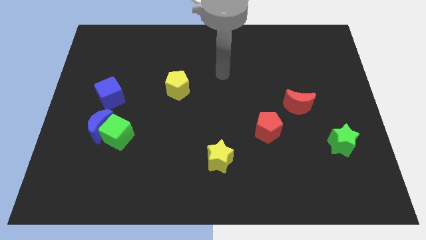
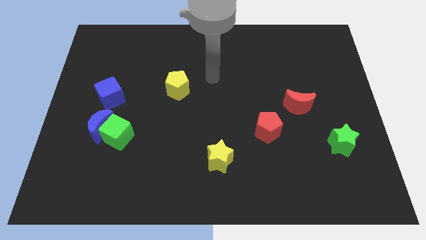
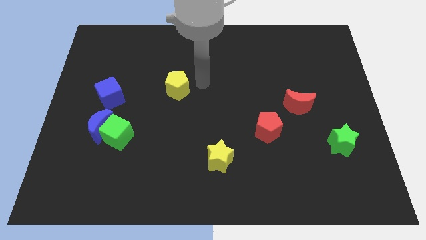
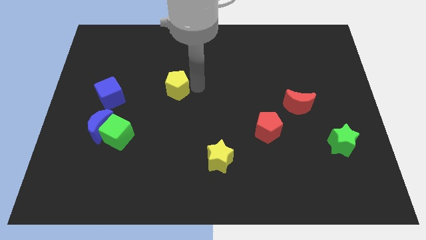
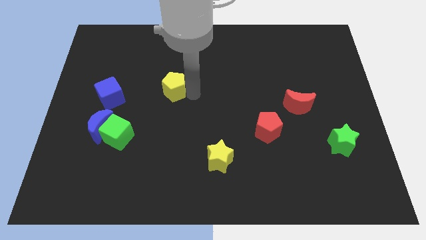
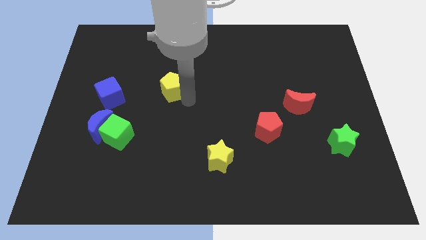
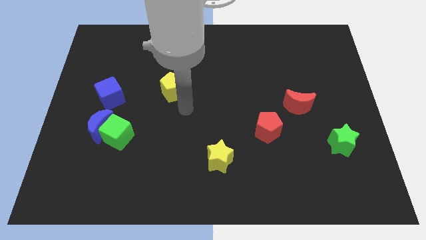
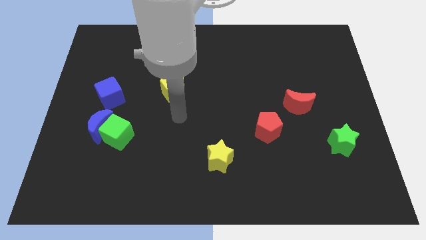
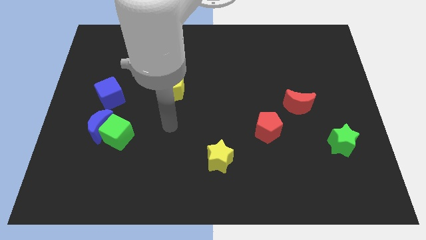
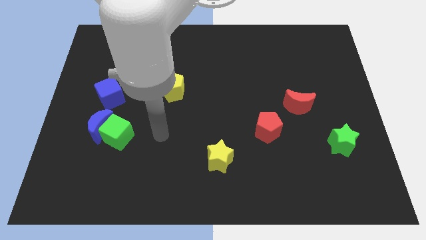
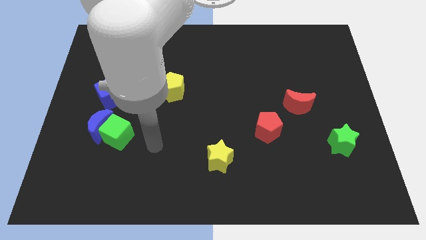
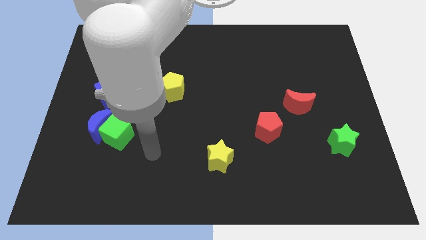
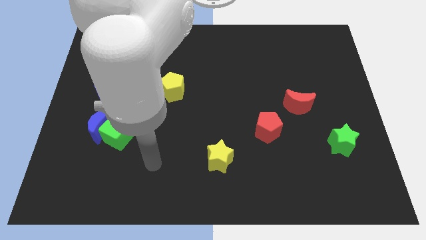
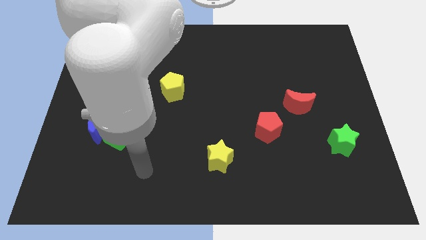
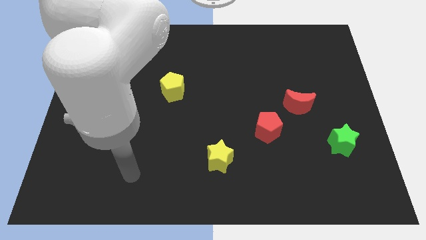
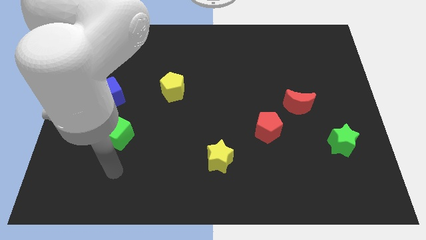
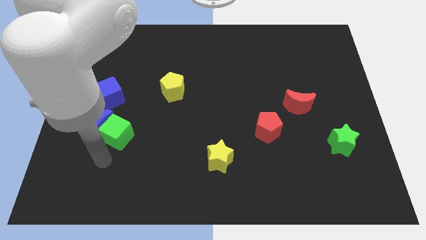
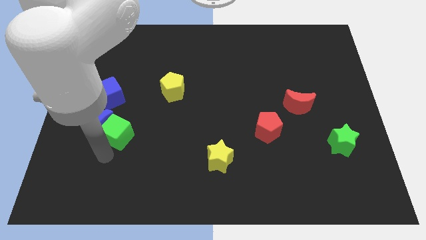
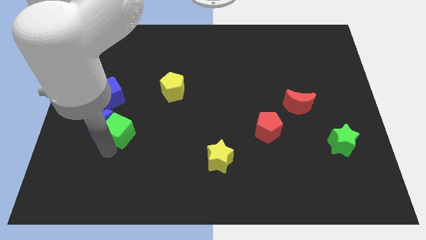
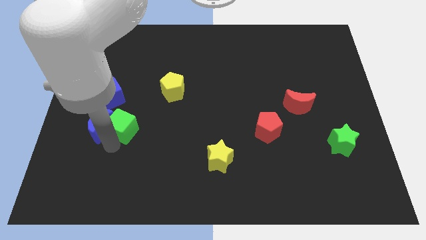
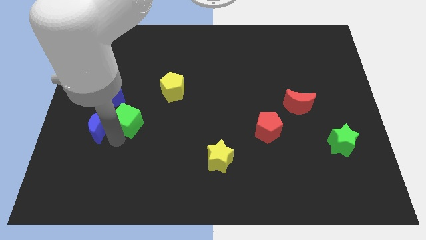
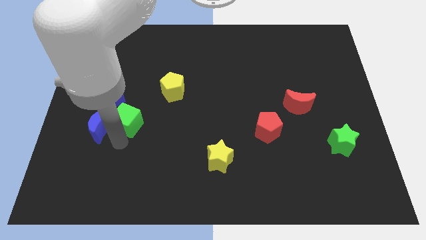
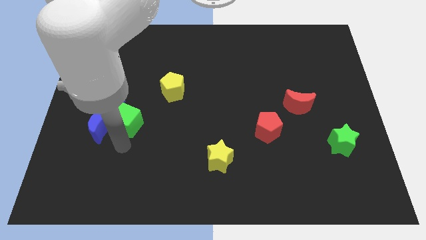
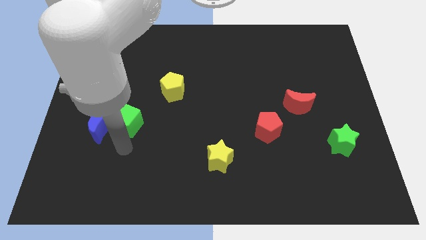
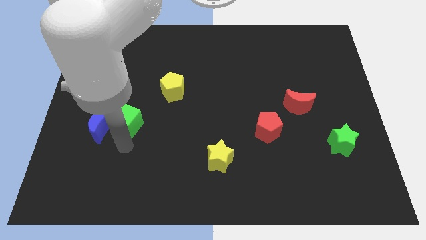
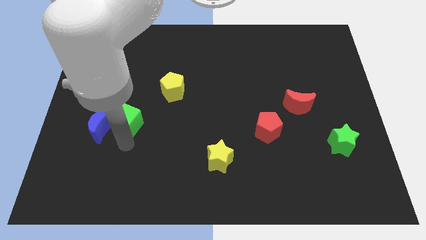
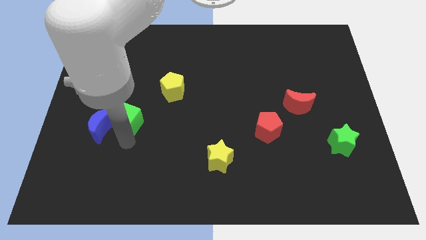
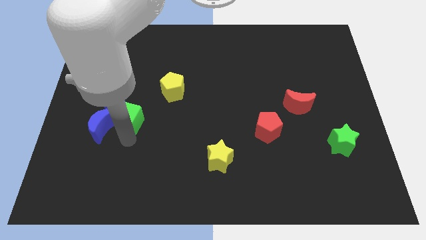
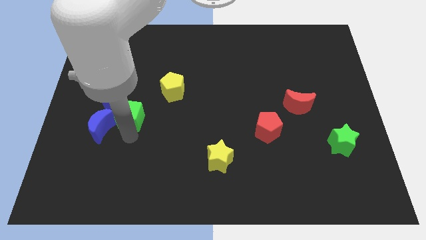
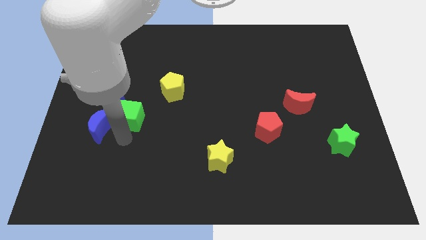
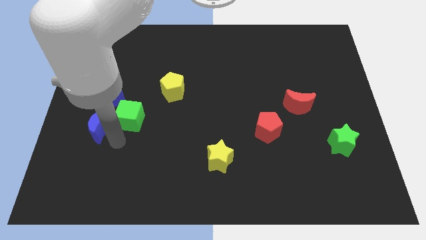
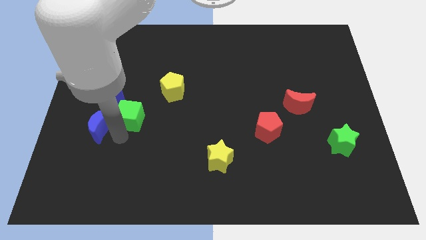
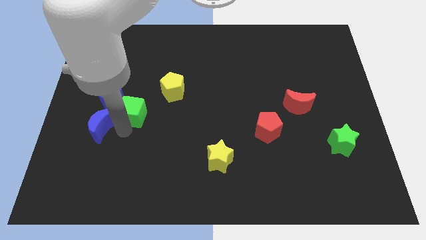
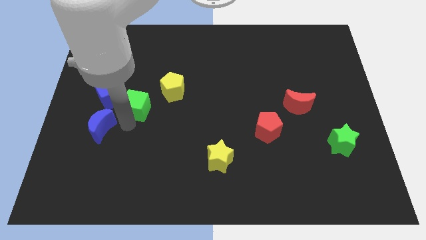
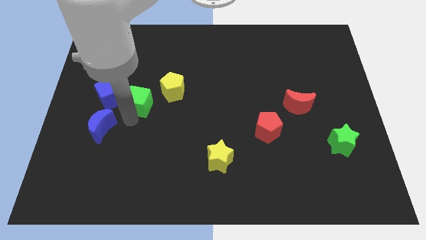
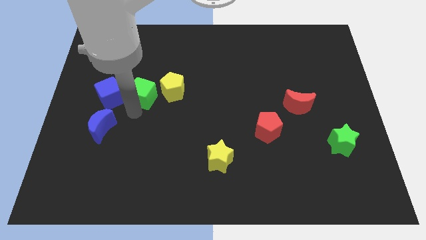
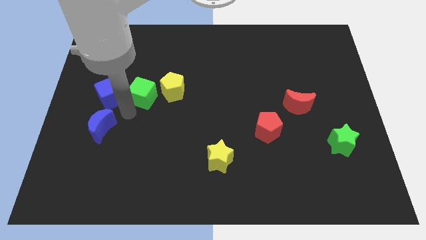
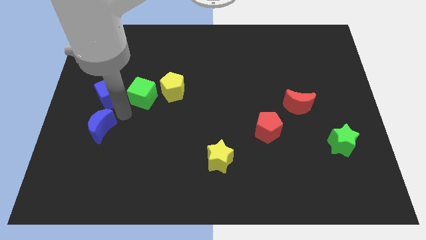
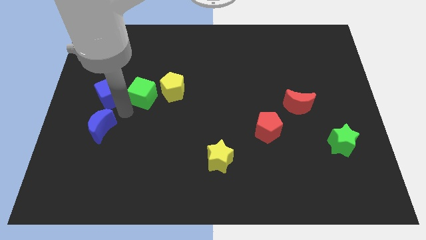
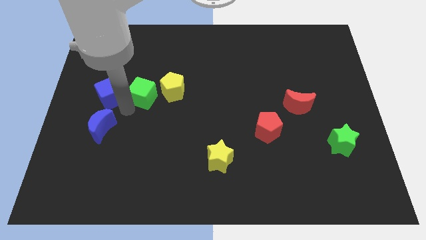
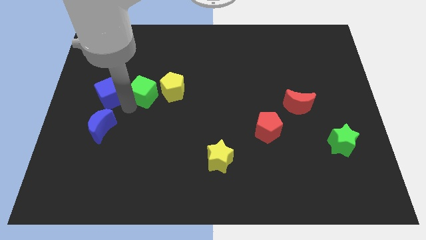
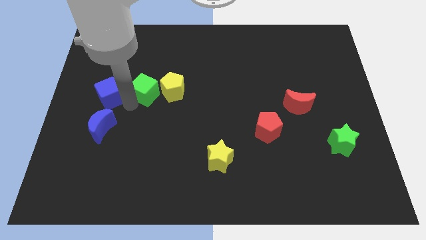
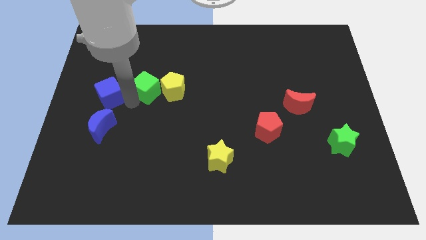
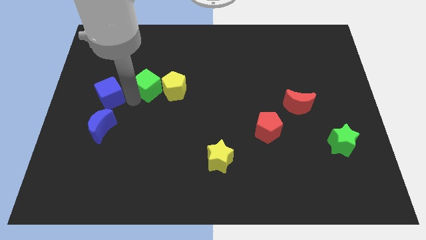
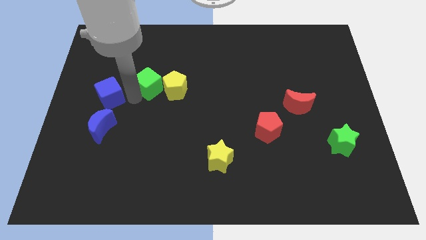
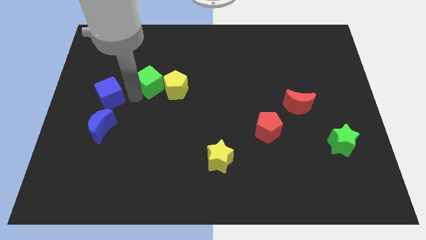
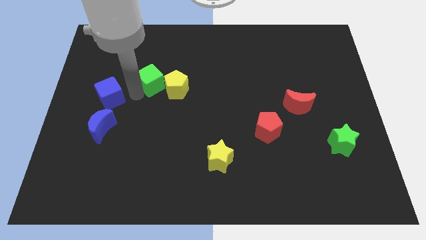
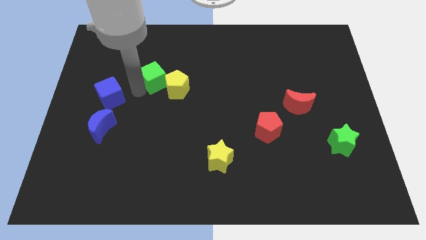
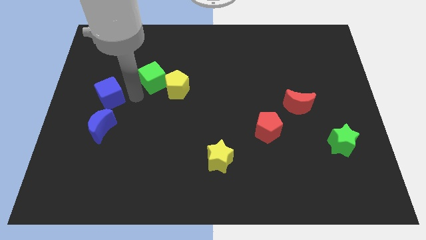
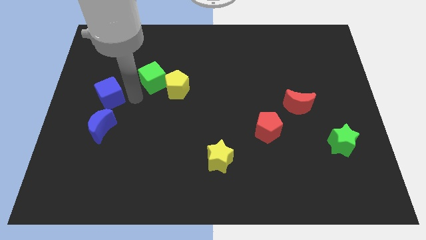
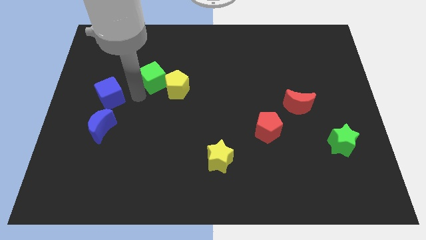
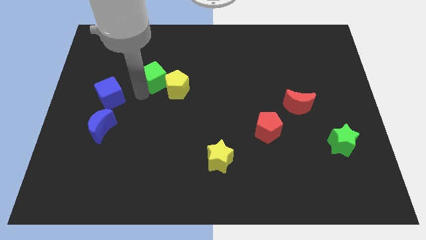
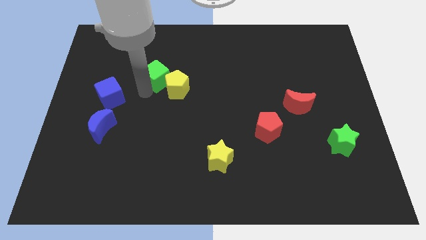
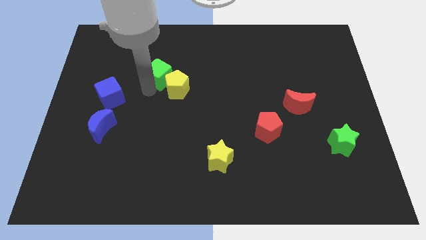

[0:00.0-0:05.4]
push the green cube to the top side of the yellow pentagon
